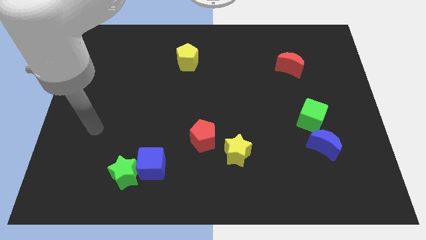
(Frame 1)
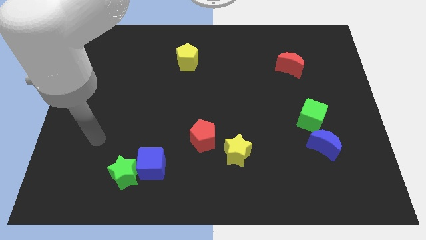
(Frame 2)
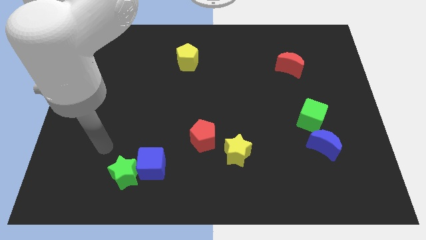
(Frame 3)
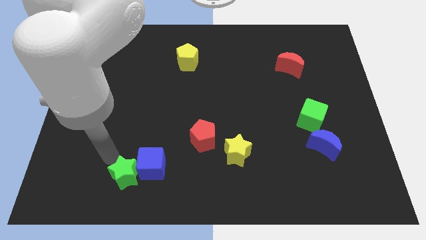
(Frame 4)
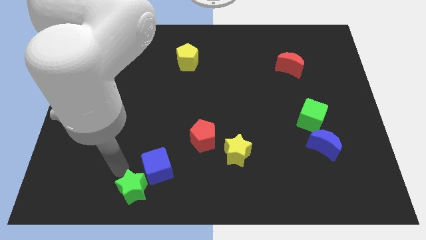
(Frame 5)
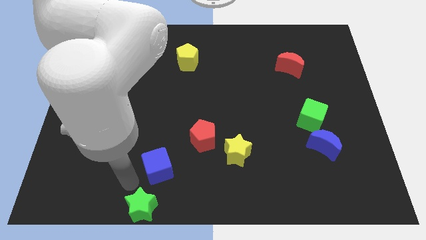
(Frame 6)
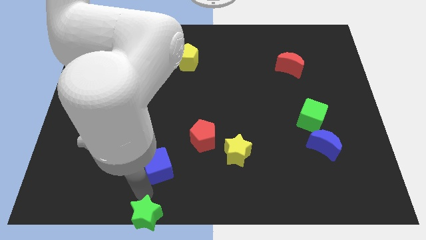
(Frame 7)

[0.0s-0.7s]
separate the blue cube from the green star

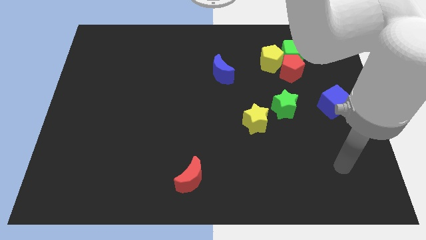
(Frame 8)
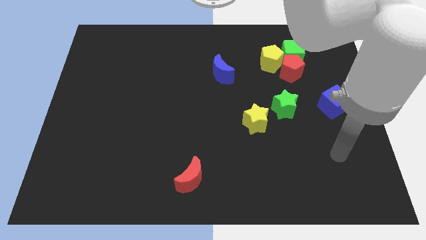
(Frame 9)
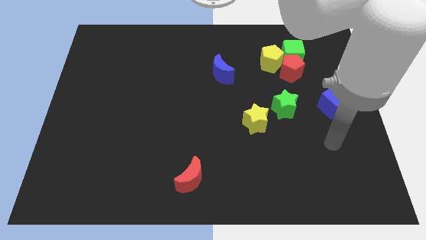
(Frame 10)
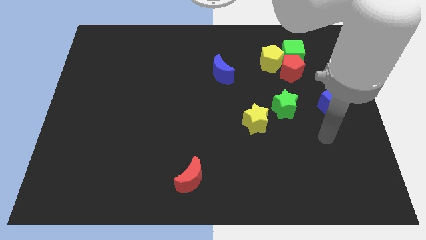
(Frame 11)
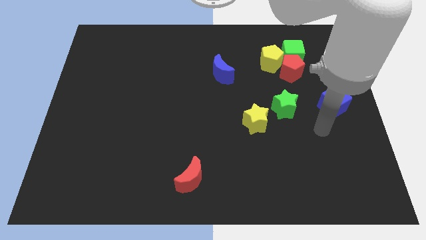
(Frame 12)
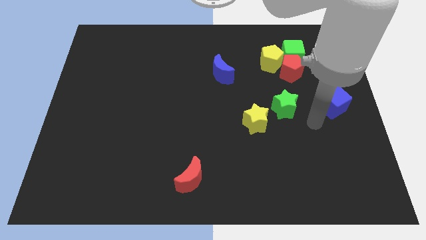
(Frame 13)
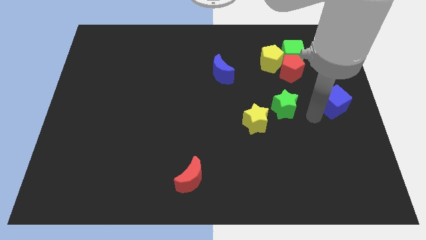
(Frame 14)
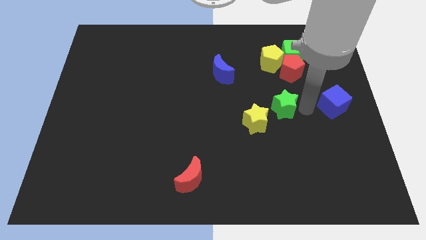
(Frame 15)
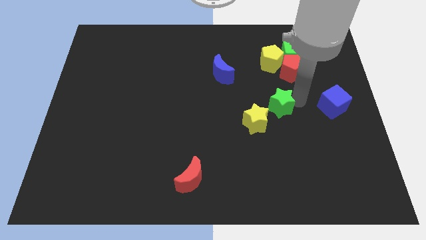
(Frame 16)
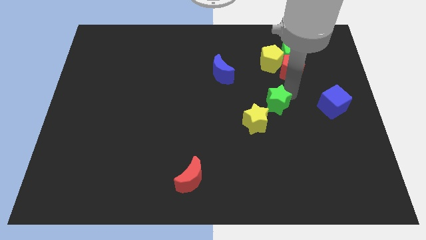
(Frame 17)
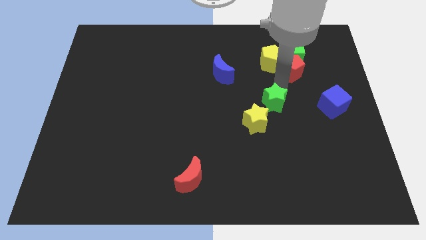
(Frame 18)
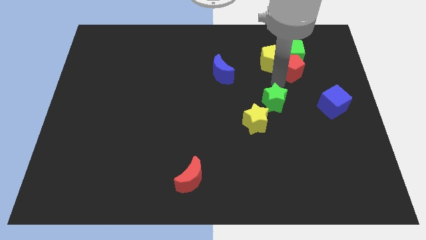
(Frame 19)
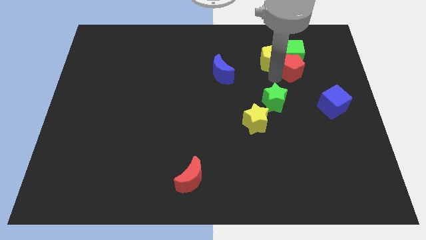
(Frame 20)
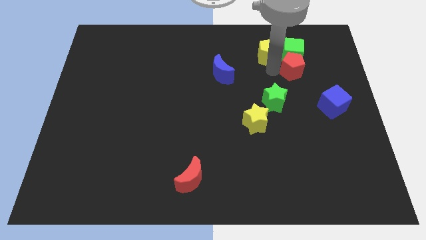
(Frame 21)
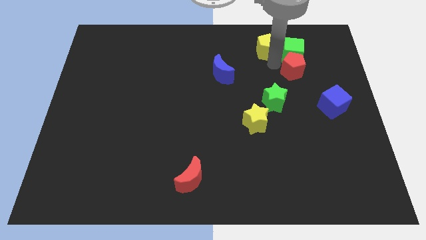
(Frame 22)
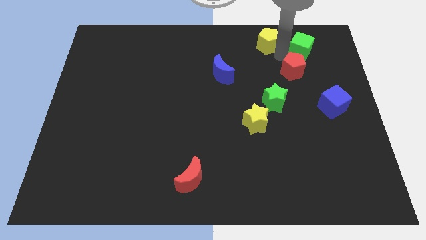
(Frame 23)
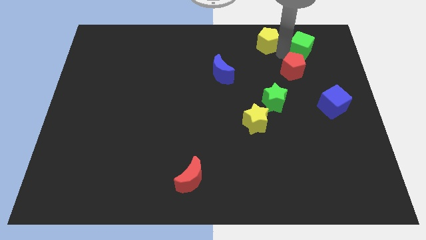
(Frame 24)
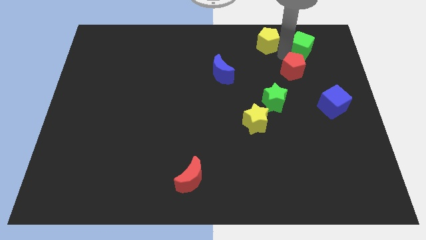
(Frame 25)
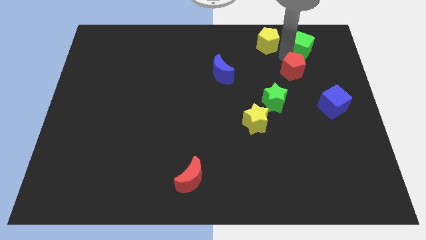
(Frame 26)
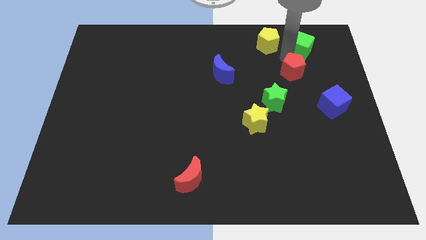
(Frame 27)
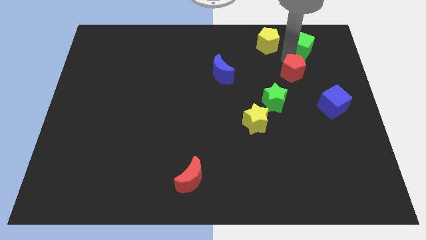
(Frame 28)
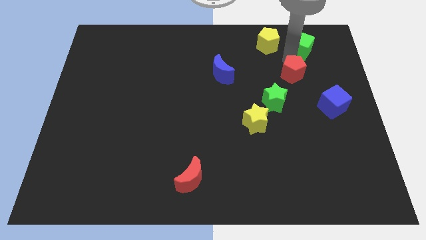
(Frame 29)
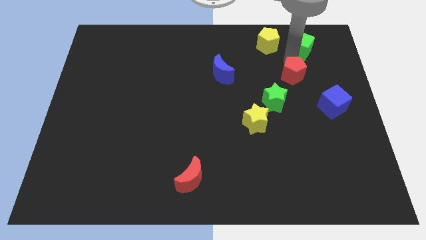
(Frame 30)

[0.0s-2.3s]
pull the red pentagon apart from the green cube and yellow pentagon

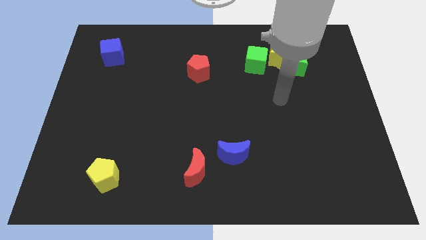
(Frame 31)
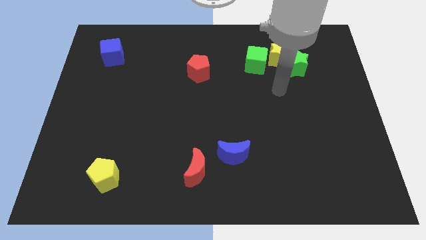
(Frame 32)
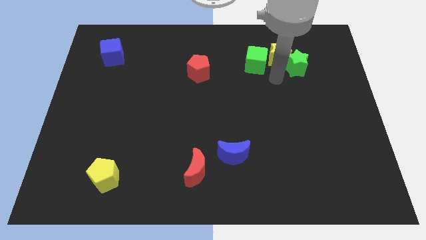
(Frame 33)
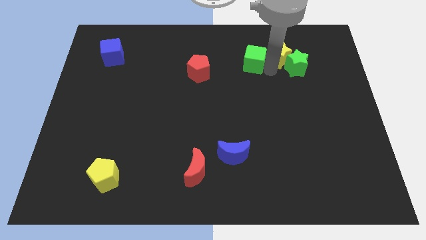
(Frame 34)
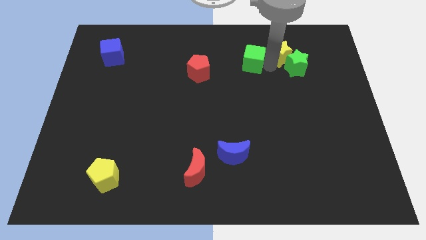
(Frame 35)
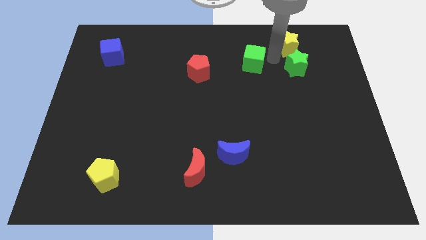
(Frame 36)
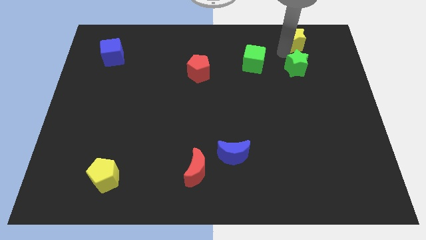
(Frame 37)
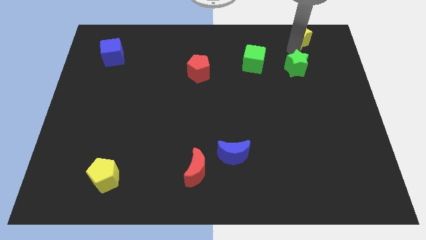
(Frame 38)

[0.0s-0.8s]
move the green star away from the yellow star

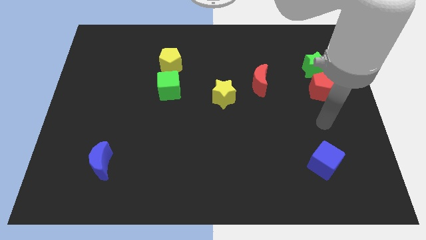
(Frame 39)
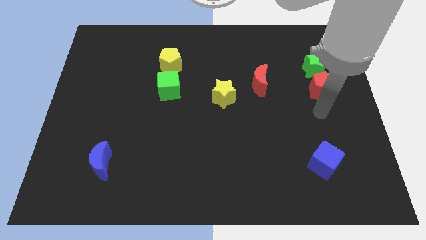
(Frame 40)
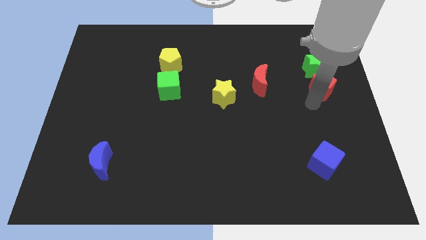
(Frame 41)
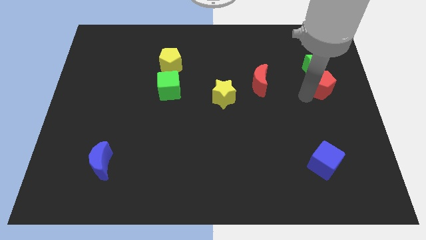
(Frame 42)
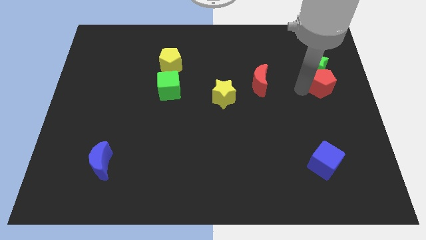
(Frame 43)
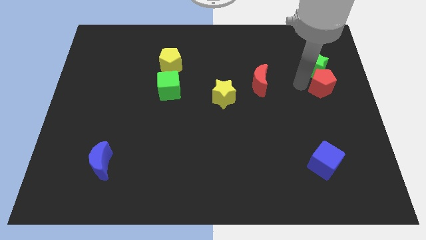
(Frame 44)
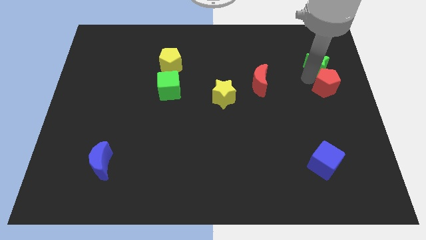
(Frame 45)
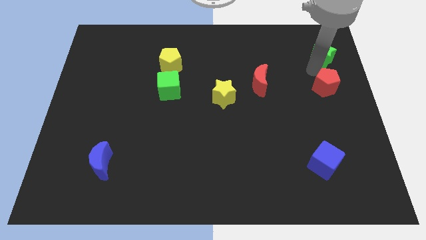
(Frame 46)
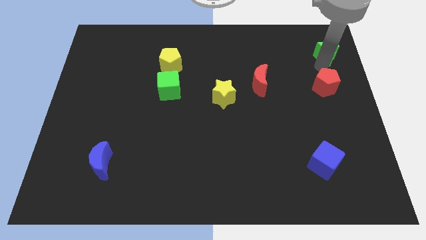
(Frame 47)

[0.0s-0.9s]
pull the red pentagon apart from the green star

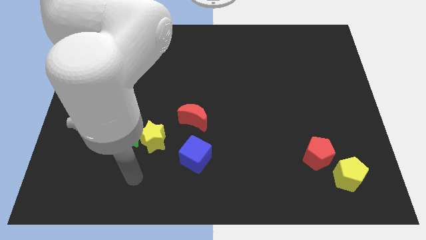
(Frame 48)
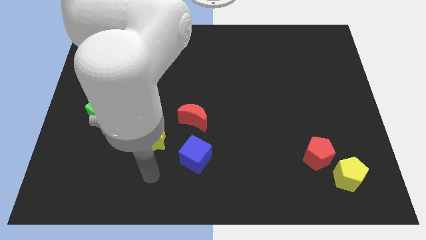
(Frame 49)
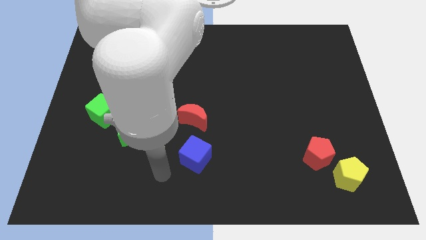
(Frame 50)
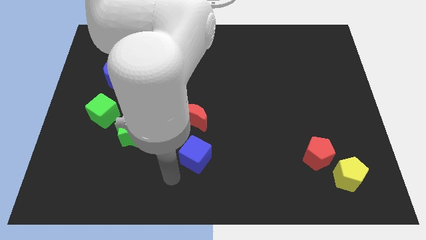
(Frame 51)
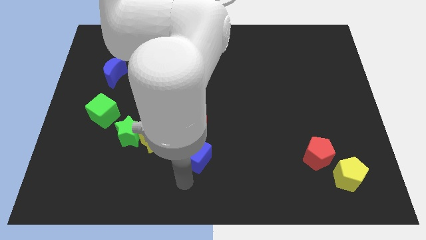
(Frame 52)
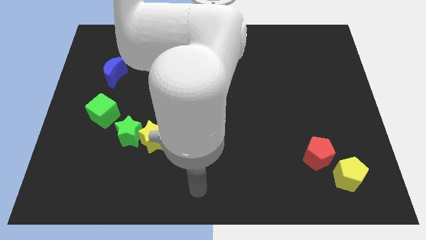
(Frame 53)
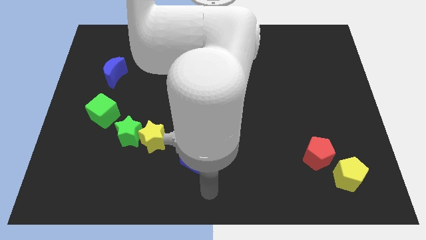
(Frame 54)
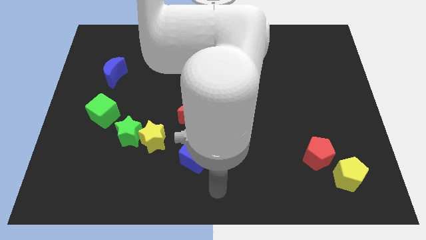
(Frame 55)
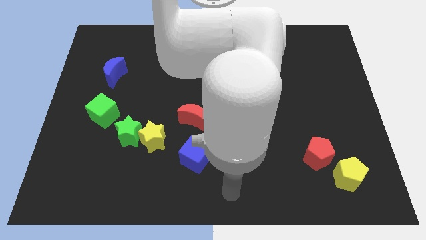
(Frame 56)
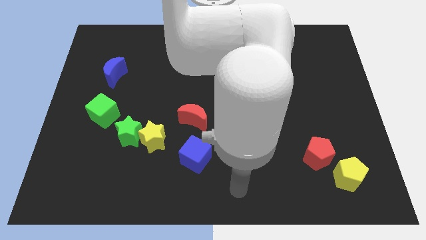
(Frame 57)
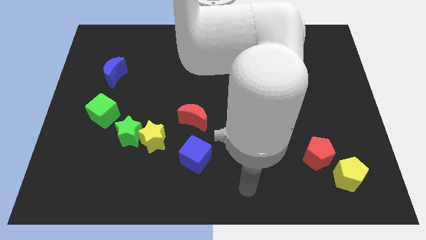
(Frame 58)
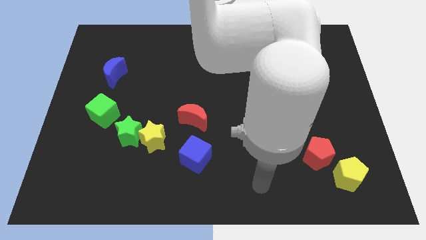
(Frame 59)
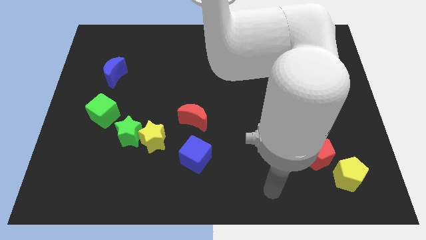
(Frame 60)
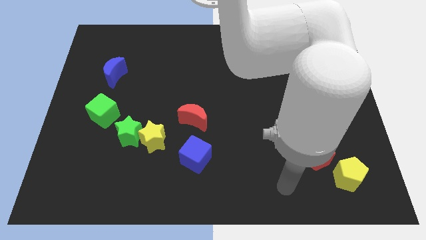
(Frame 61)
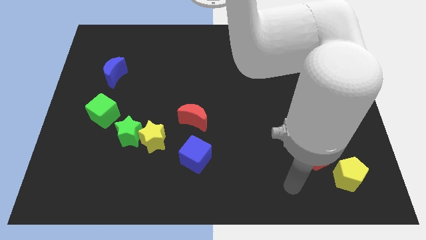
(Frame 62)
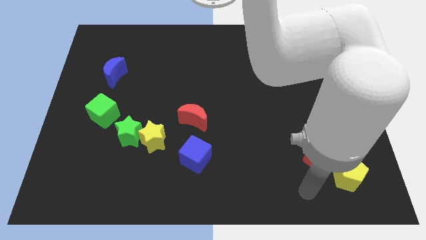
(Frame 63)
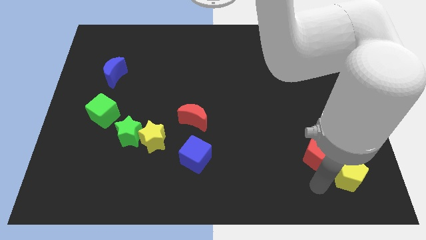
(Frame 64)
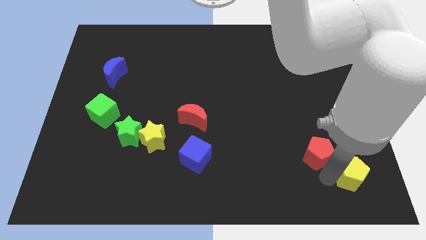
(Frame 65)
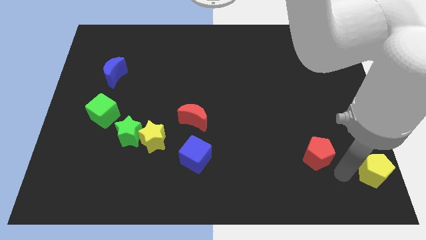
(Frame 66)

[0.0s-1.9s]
pull the red pentagon apart from the yellow pentagon

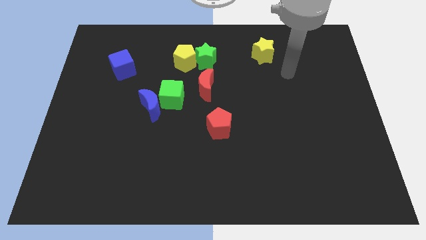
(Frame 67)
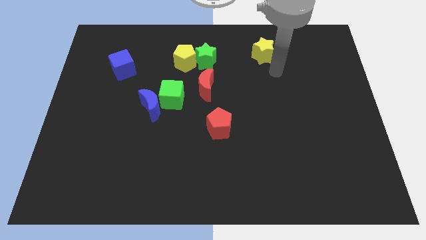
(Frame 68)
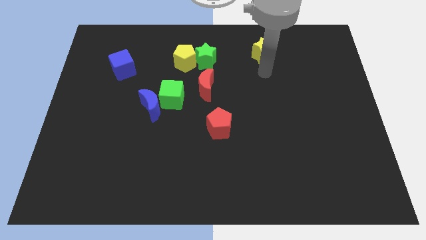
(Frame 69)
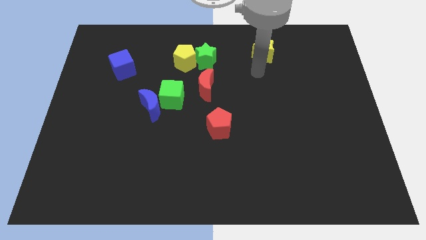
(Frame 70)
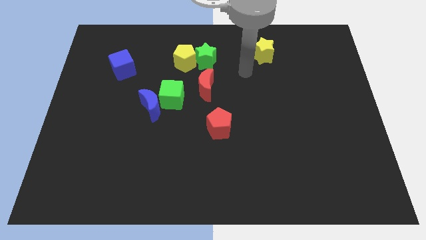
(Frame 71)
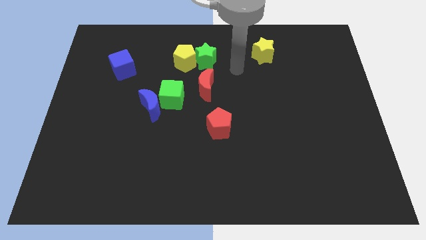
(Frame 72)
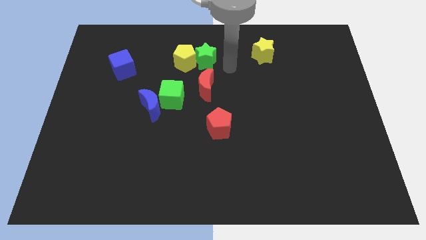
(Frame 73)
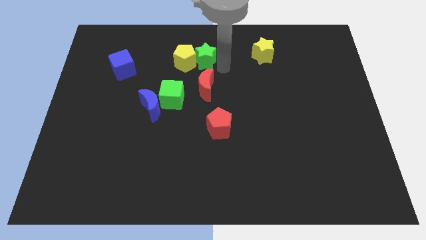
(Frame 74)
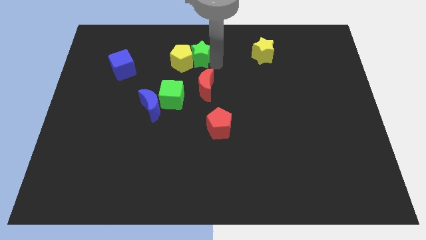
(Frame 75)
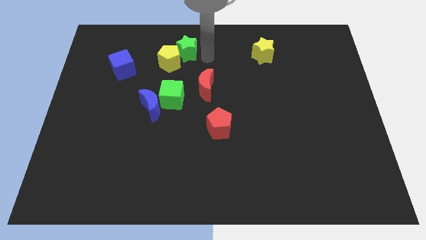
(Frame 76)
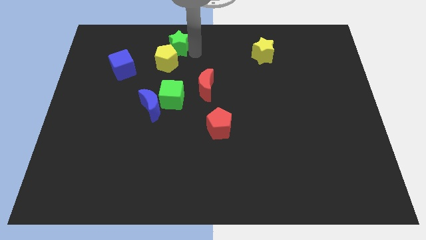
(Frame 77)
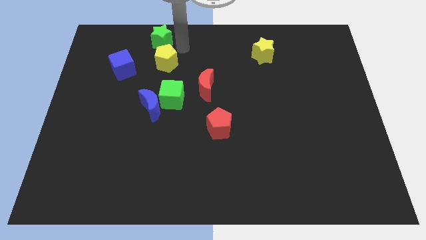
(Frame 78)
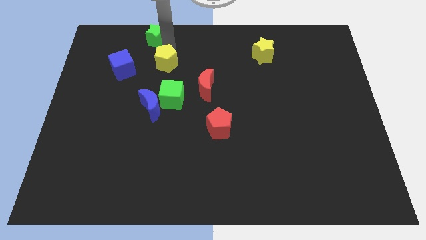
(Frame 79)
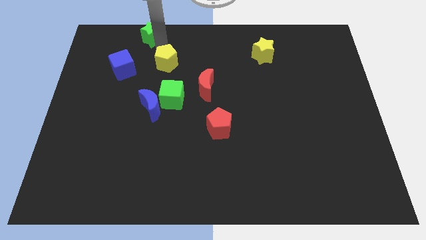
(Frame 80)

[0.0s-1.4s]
move the yellow pentagon away from the green star

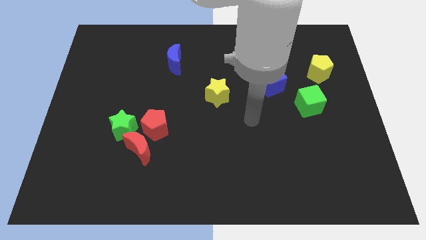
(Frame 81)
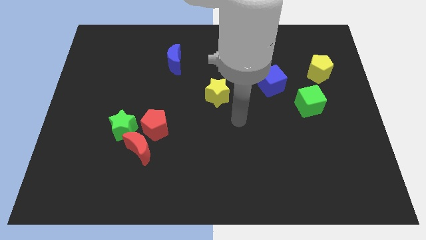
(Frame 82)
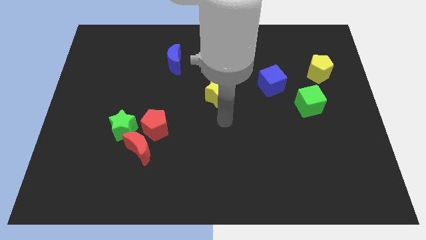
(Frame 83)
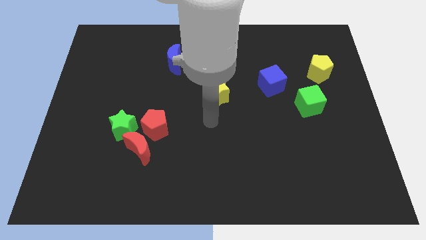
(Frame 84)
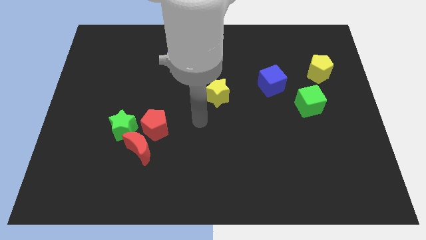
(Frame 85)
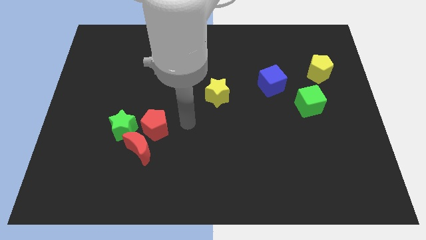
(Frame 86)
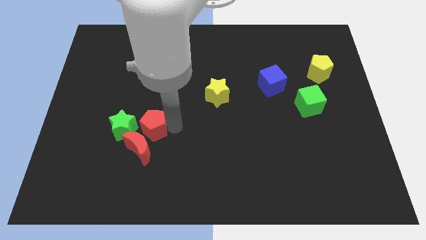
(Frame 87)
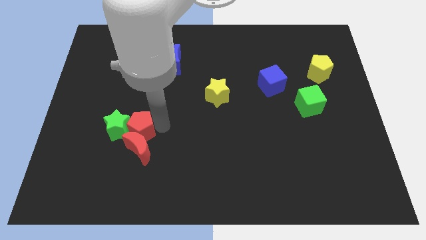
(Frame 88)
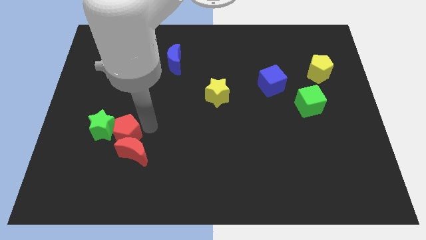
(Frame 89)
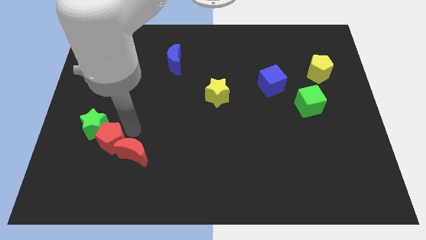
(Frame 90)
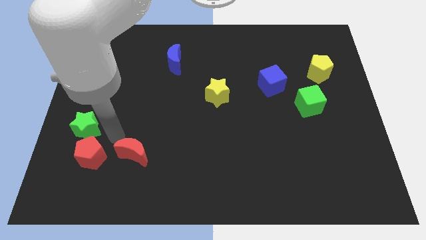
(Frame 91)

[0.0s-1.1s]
move the red moon away from the red pentagon and green star
